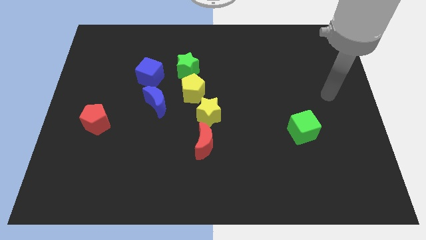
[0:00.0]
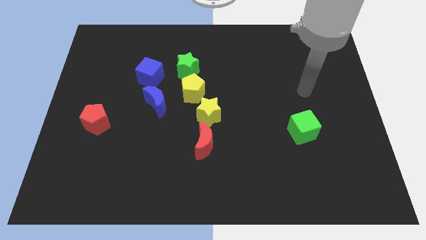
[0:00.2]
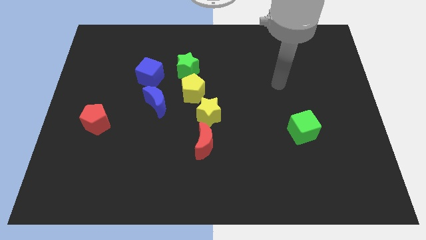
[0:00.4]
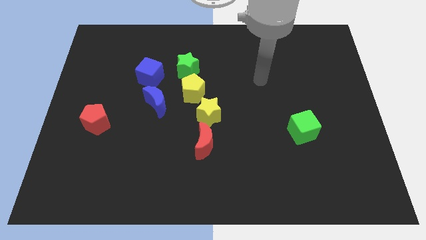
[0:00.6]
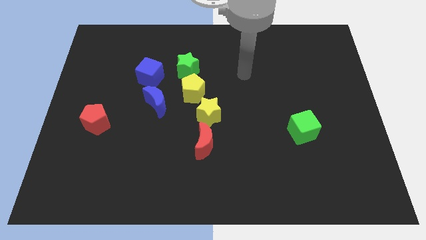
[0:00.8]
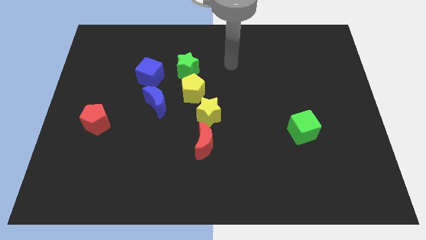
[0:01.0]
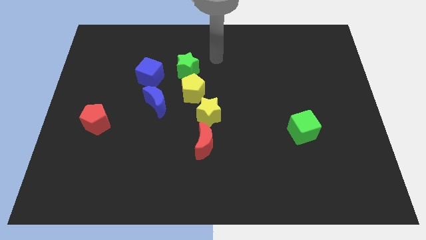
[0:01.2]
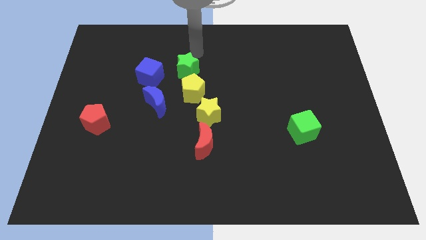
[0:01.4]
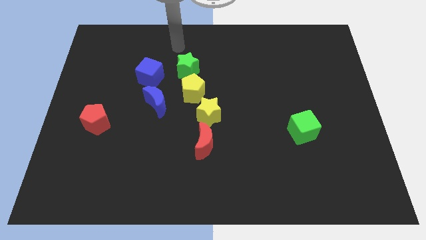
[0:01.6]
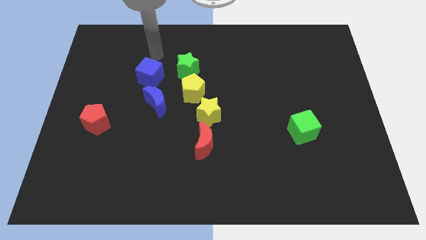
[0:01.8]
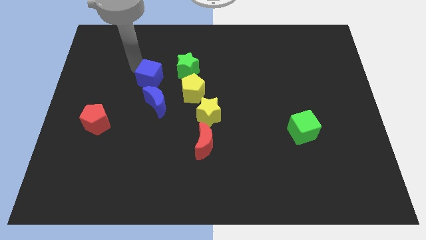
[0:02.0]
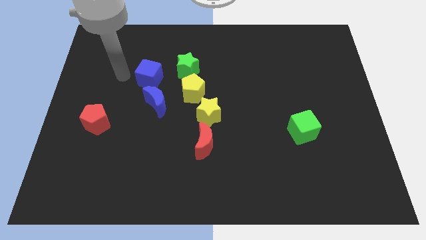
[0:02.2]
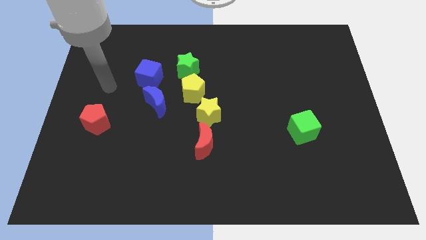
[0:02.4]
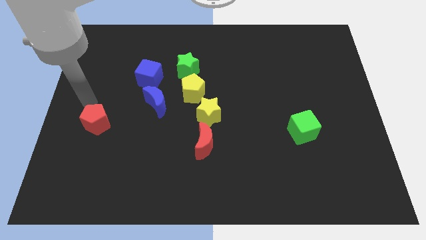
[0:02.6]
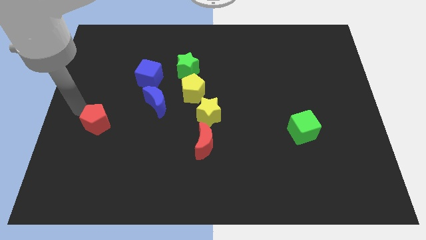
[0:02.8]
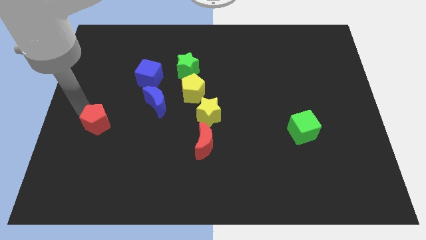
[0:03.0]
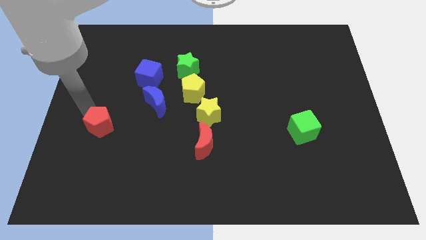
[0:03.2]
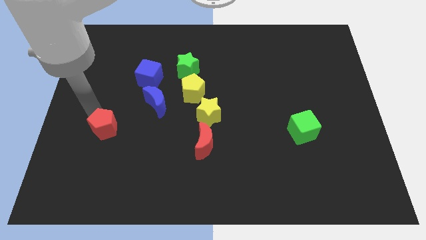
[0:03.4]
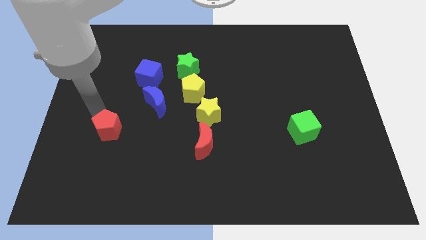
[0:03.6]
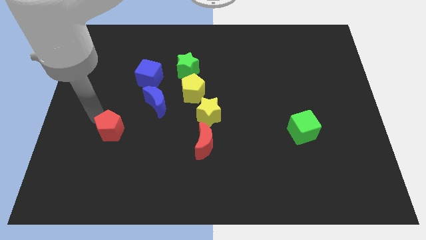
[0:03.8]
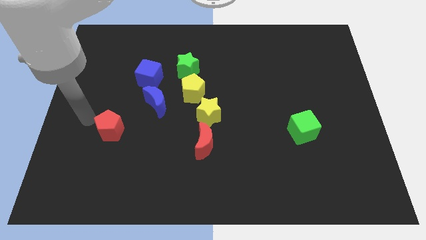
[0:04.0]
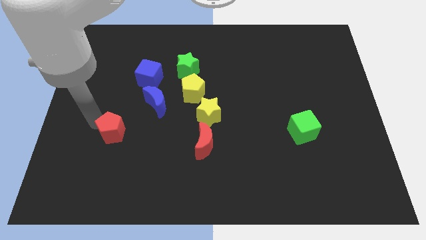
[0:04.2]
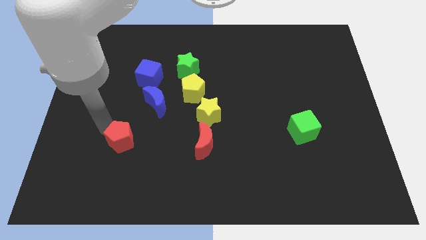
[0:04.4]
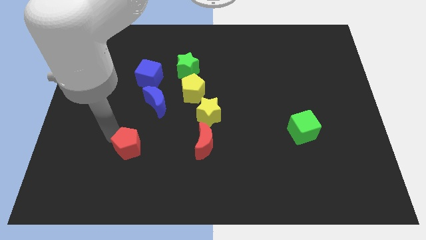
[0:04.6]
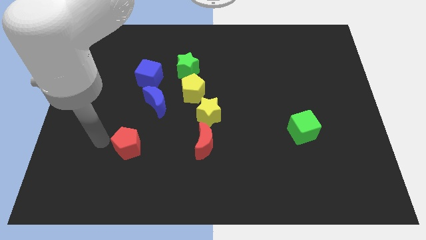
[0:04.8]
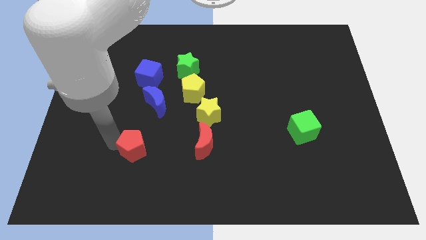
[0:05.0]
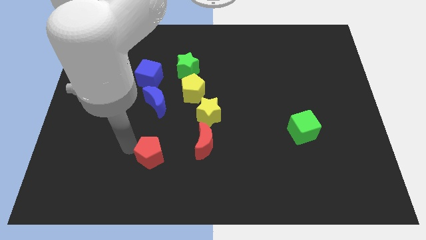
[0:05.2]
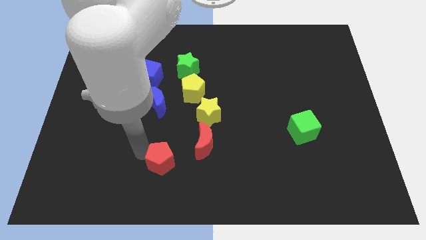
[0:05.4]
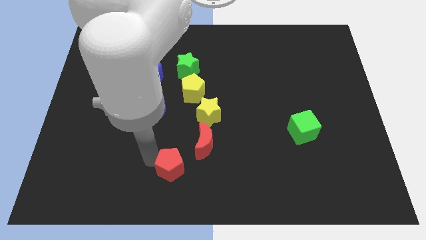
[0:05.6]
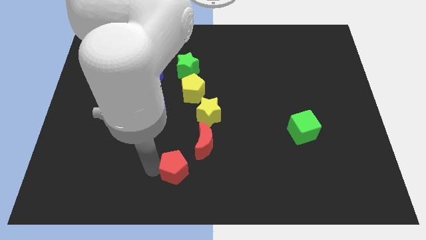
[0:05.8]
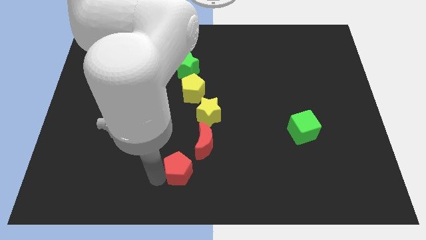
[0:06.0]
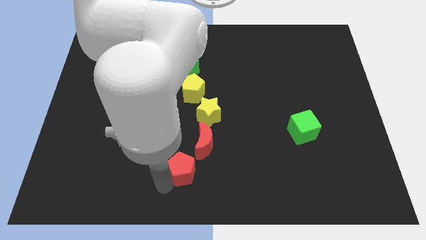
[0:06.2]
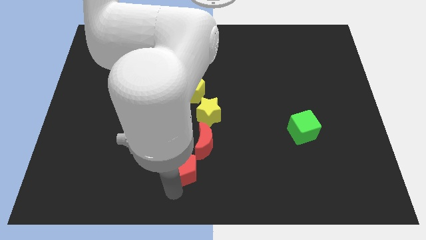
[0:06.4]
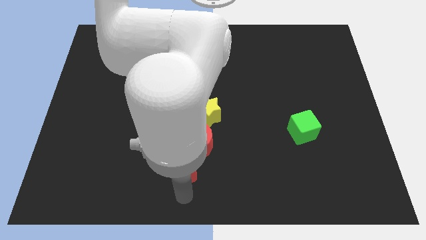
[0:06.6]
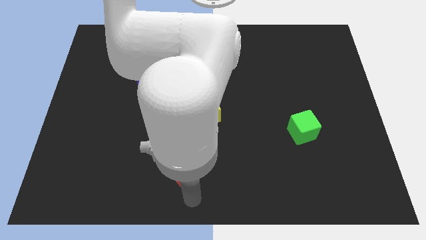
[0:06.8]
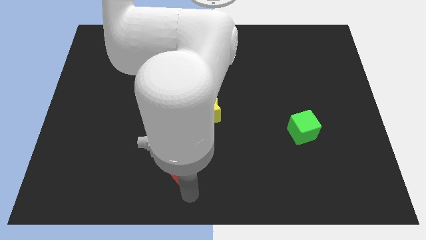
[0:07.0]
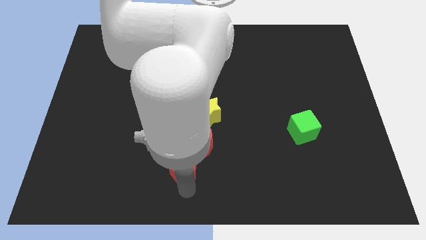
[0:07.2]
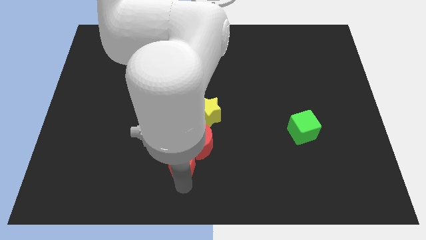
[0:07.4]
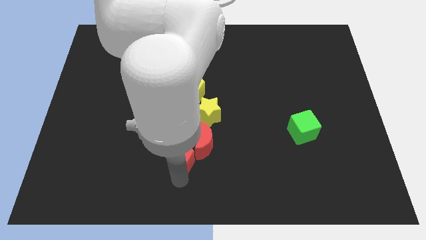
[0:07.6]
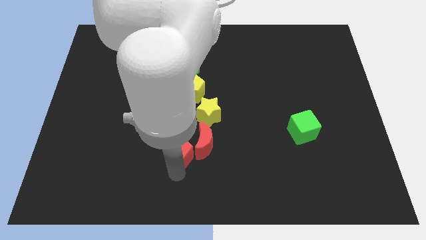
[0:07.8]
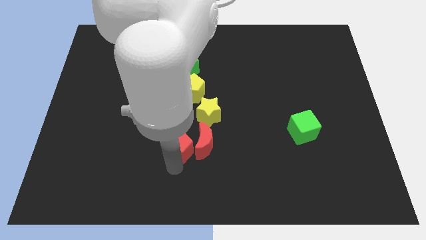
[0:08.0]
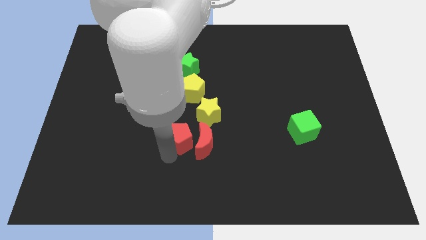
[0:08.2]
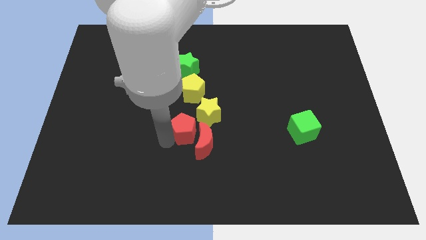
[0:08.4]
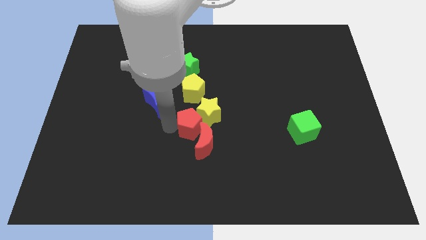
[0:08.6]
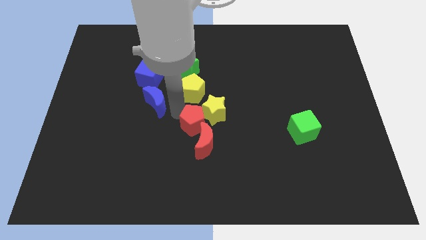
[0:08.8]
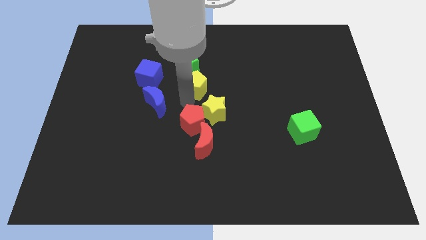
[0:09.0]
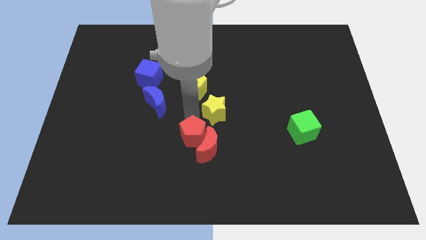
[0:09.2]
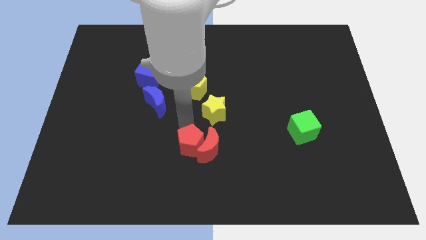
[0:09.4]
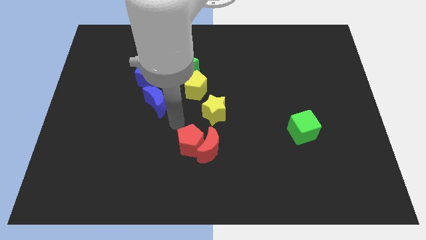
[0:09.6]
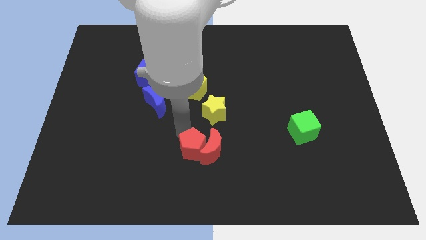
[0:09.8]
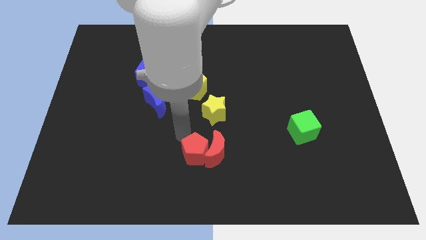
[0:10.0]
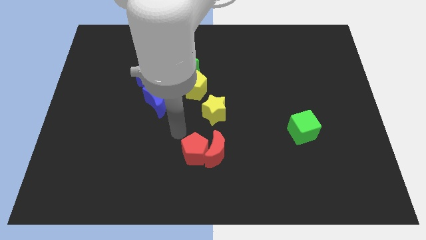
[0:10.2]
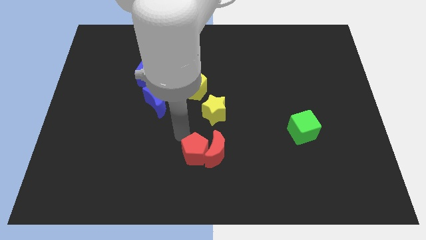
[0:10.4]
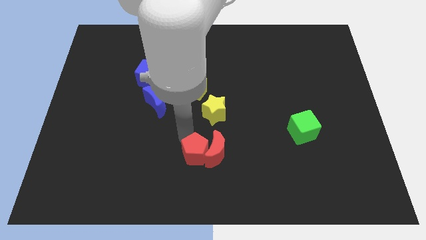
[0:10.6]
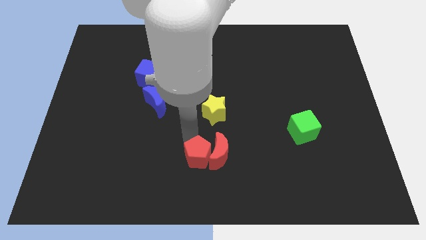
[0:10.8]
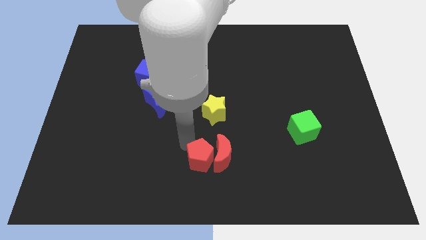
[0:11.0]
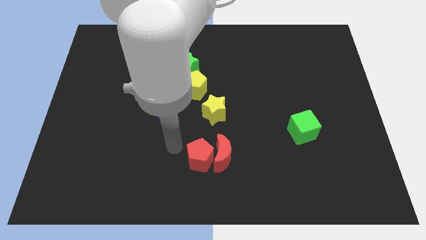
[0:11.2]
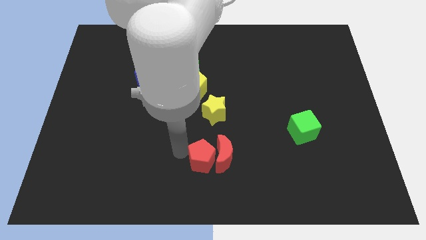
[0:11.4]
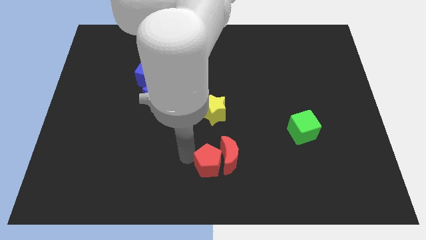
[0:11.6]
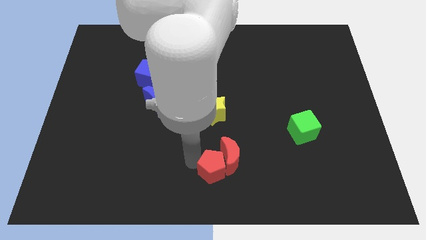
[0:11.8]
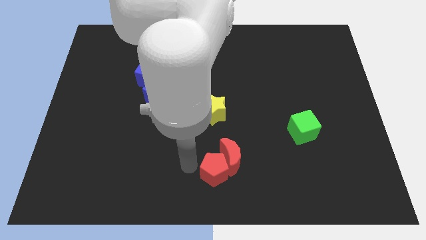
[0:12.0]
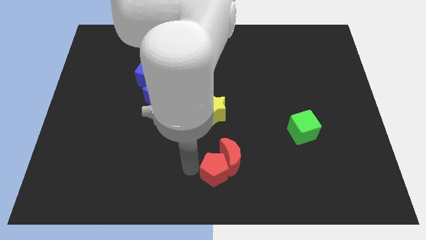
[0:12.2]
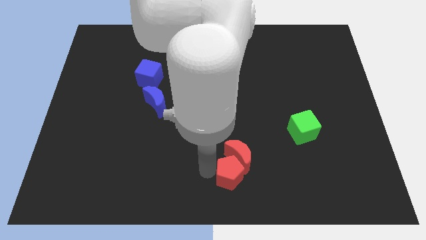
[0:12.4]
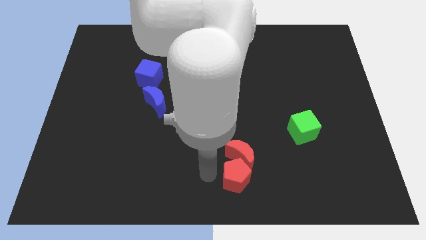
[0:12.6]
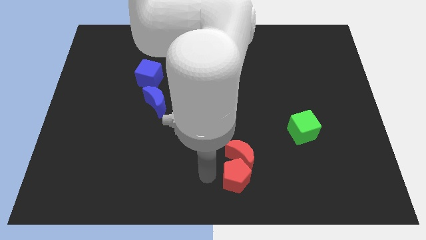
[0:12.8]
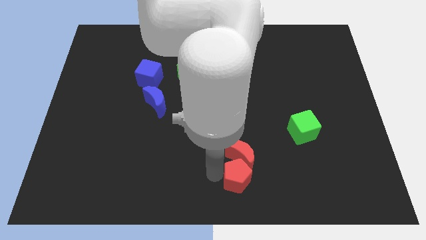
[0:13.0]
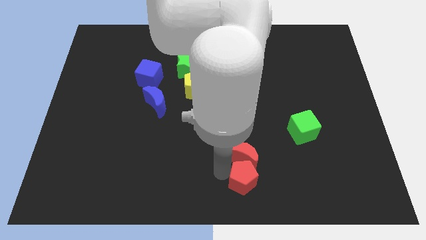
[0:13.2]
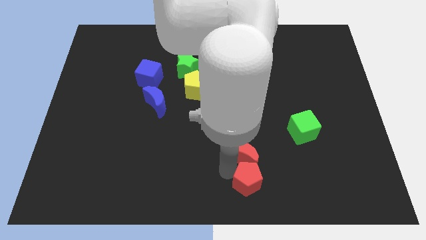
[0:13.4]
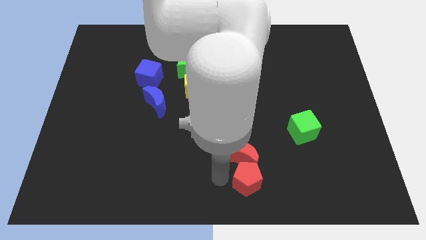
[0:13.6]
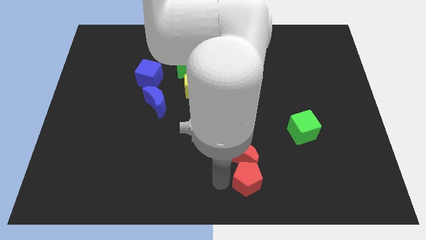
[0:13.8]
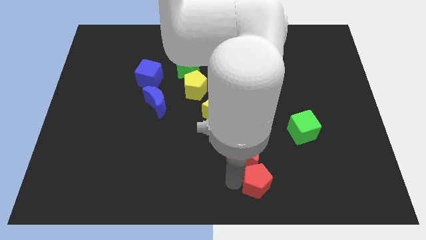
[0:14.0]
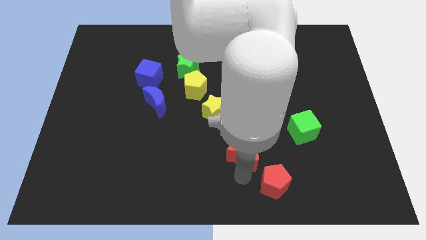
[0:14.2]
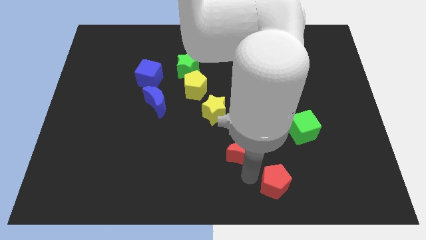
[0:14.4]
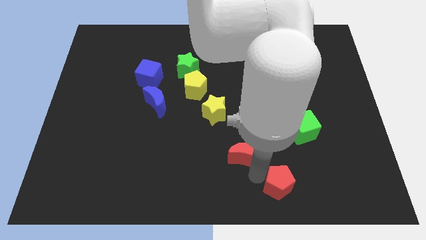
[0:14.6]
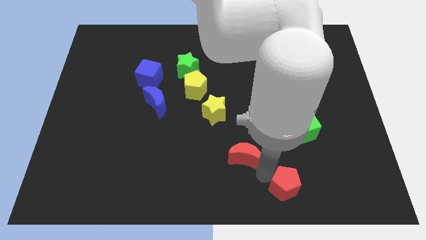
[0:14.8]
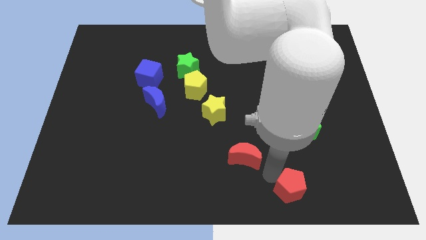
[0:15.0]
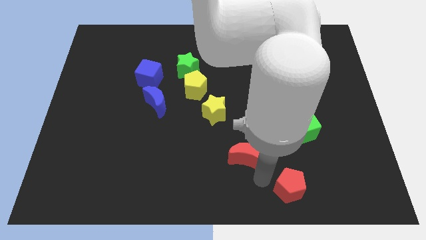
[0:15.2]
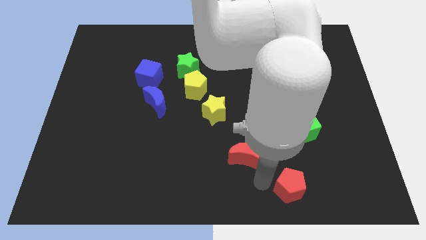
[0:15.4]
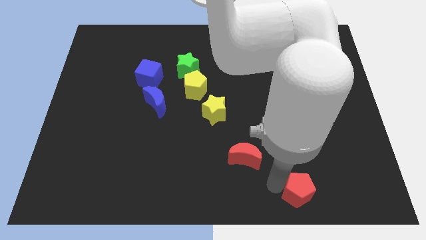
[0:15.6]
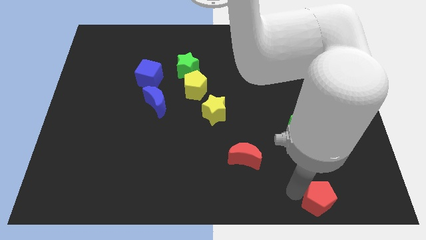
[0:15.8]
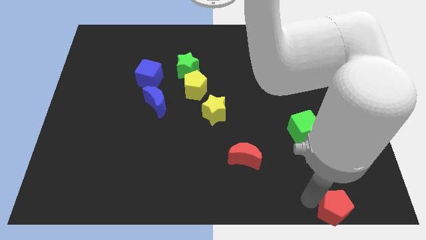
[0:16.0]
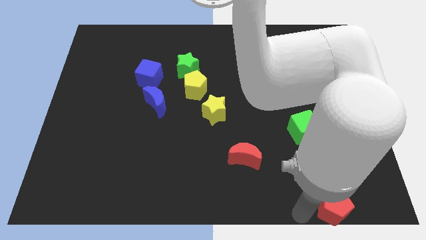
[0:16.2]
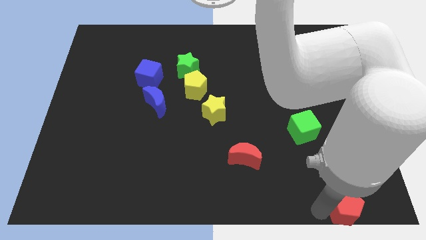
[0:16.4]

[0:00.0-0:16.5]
move the red pentagon to the bottom right of the board

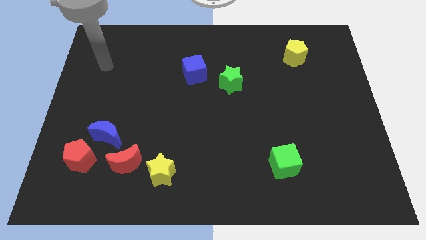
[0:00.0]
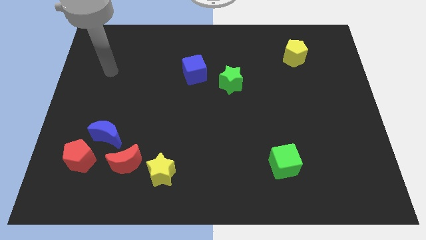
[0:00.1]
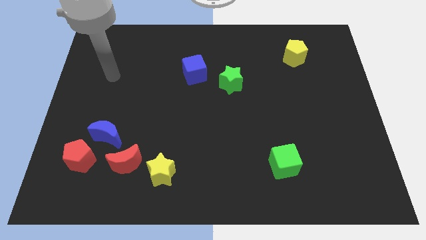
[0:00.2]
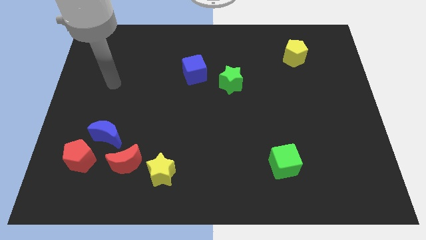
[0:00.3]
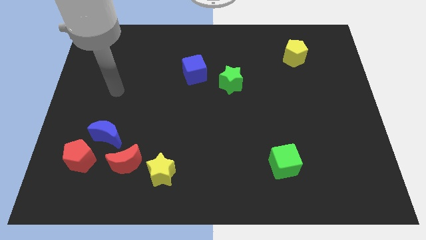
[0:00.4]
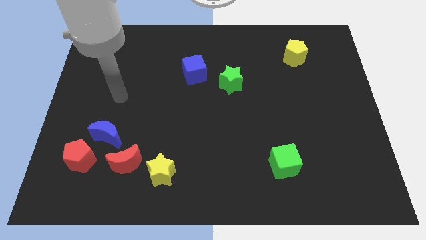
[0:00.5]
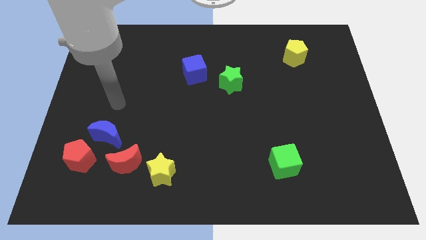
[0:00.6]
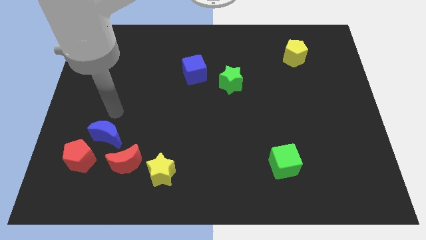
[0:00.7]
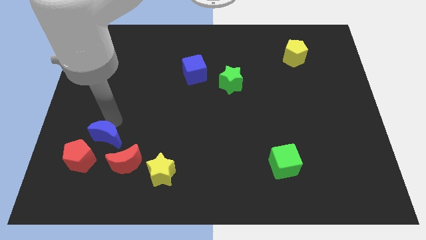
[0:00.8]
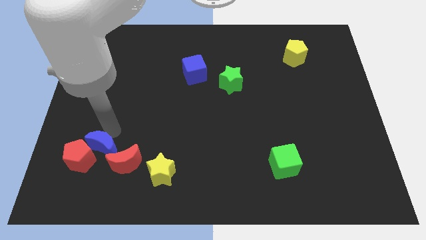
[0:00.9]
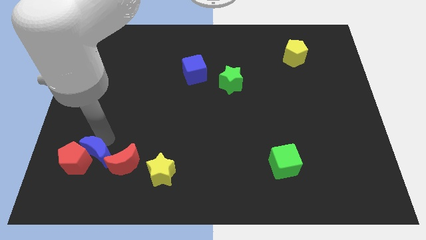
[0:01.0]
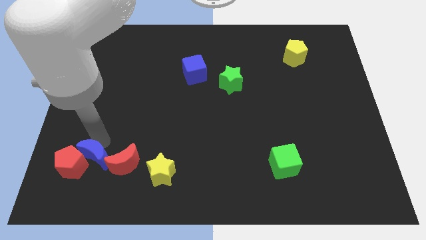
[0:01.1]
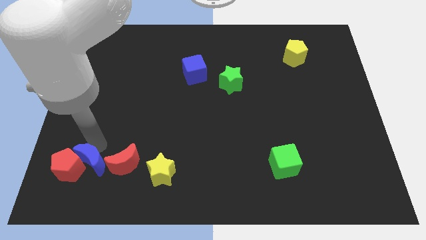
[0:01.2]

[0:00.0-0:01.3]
put the red pentagon to the bottom left
